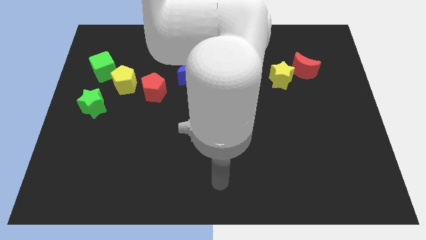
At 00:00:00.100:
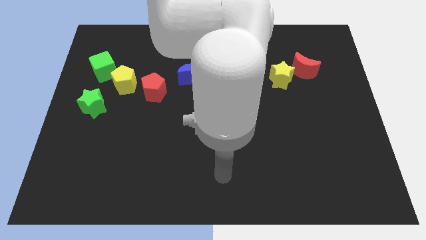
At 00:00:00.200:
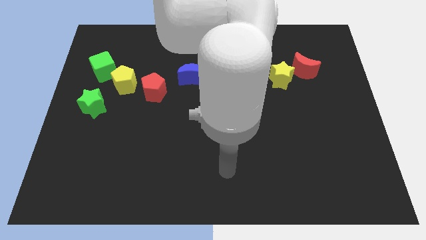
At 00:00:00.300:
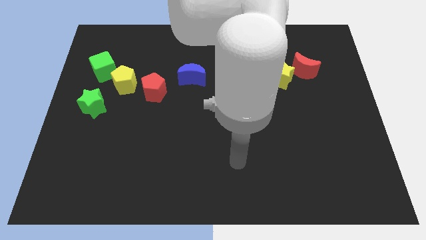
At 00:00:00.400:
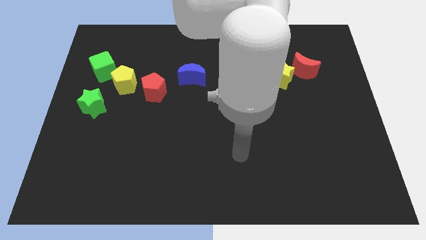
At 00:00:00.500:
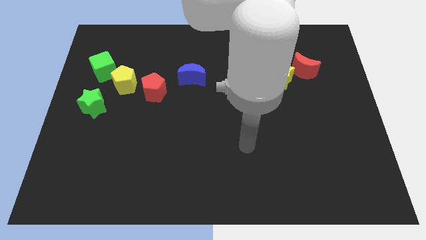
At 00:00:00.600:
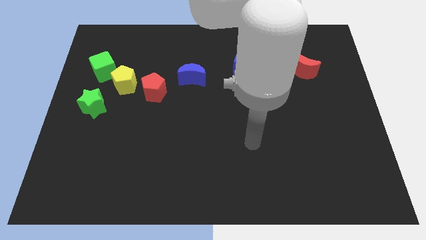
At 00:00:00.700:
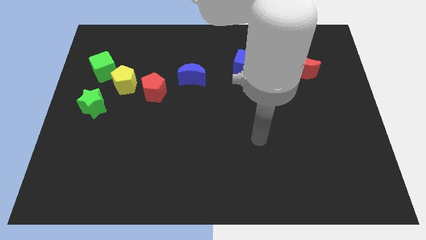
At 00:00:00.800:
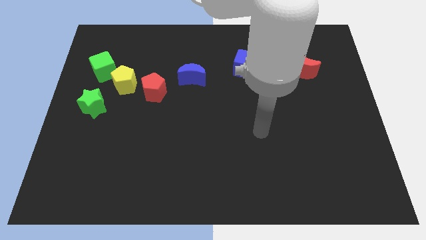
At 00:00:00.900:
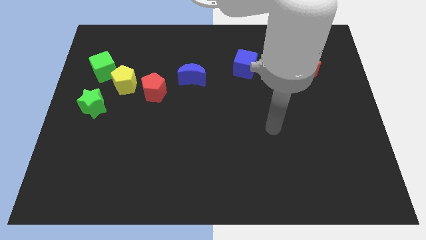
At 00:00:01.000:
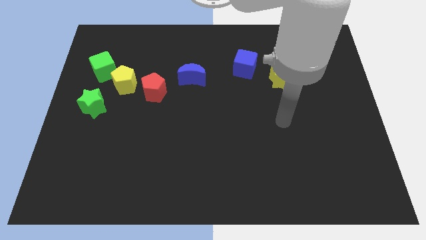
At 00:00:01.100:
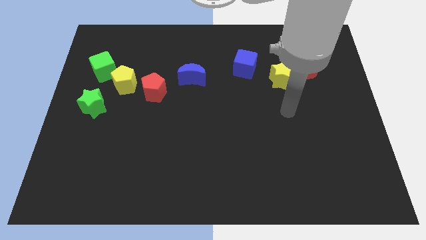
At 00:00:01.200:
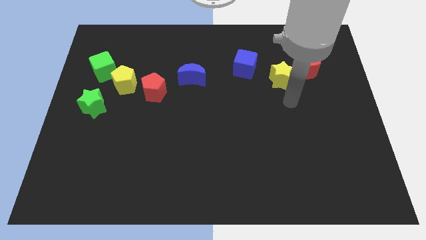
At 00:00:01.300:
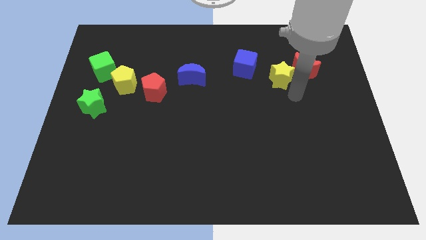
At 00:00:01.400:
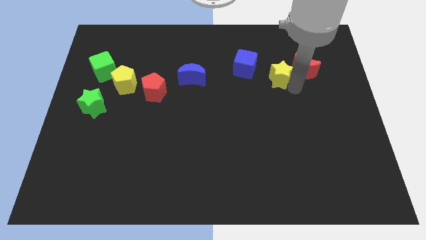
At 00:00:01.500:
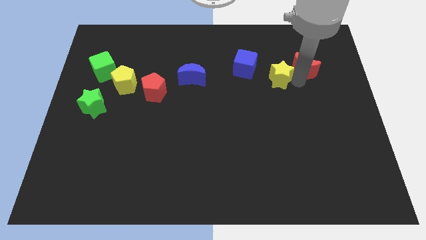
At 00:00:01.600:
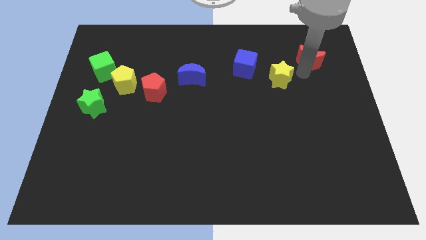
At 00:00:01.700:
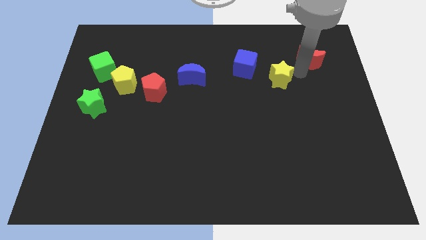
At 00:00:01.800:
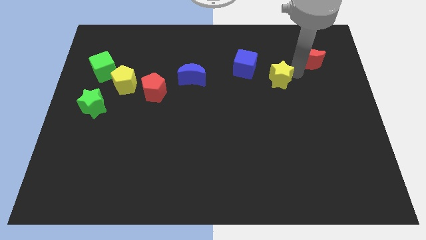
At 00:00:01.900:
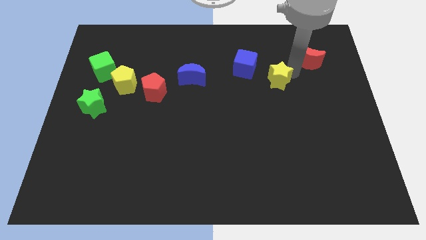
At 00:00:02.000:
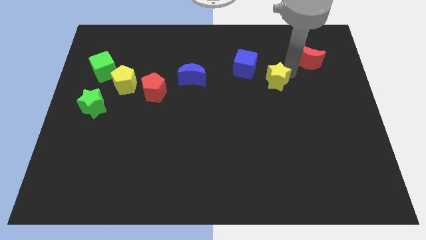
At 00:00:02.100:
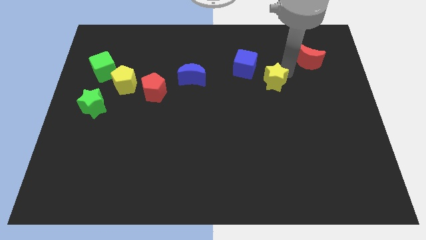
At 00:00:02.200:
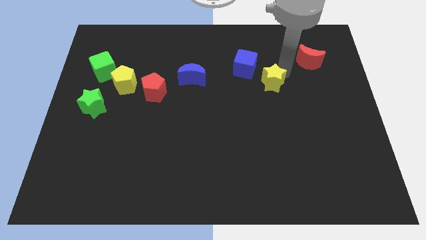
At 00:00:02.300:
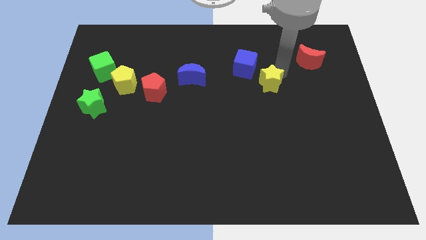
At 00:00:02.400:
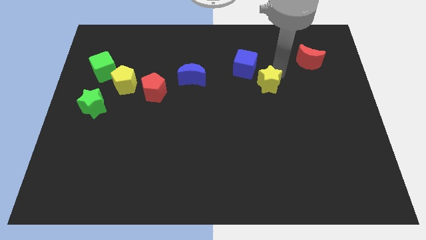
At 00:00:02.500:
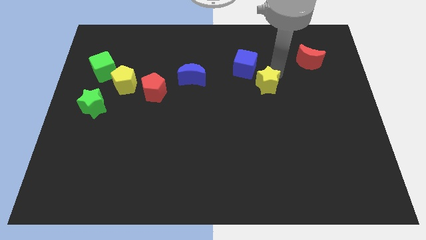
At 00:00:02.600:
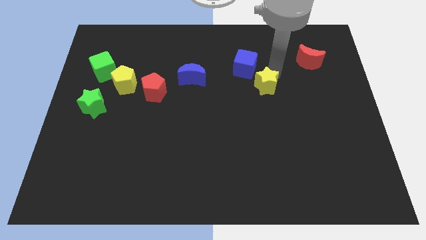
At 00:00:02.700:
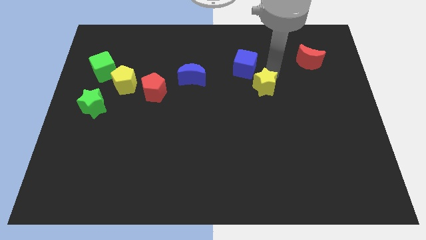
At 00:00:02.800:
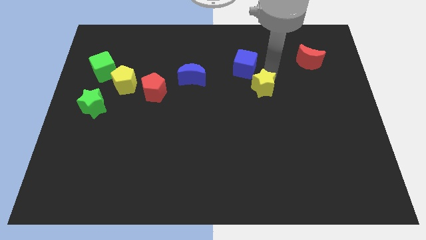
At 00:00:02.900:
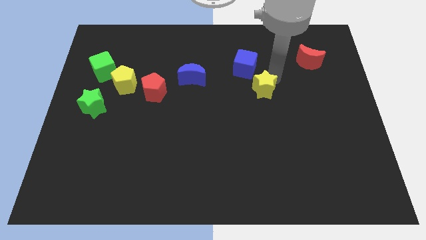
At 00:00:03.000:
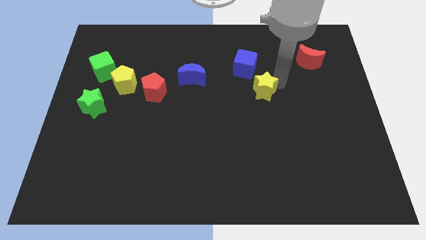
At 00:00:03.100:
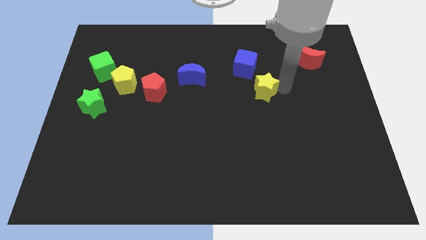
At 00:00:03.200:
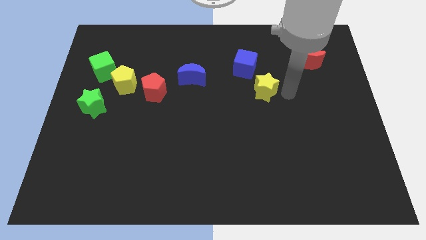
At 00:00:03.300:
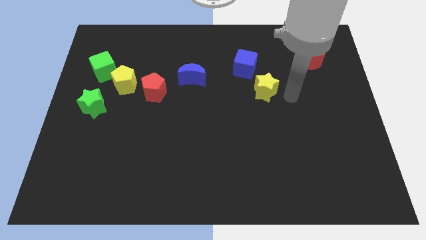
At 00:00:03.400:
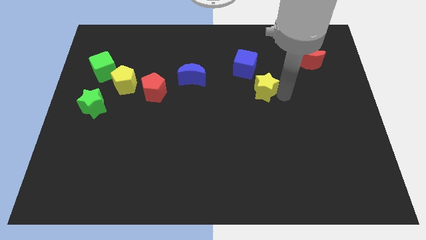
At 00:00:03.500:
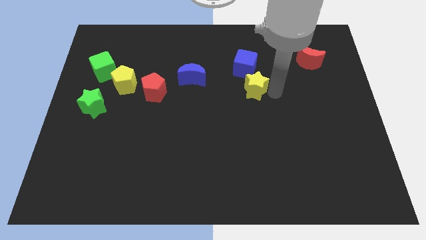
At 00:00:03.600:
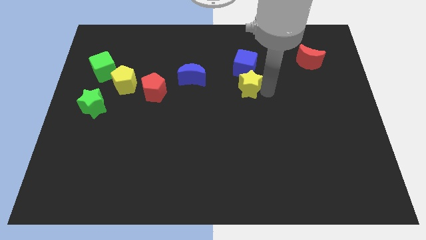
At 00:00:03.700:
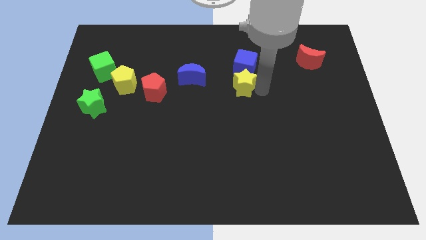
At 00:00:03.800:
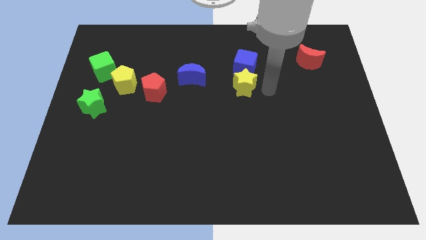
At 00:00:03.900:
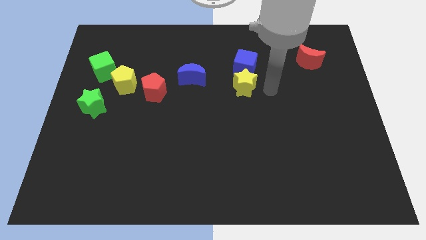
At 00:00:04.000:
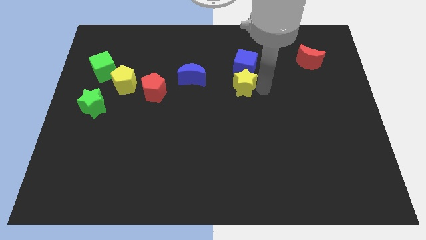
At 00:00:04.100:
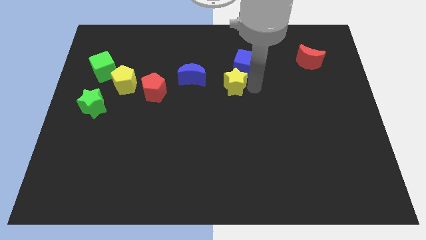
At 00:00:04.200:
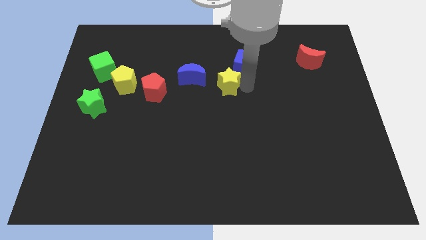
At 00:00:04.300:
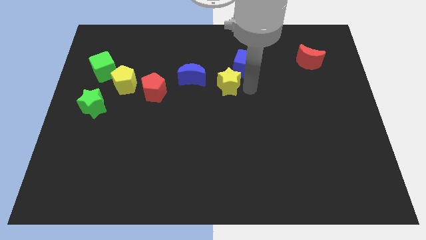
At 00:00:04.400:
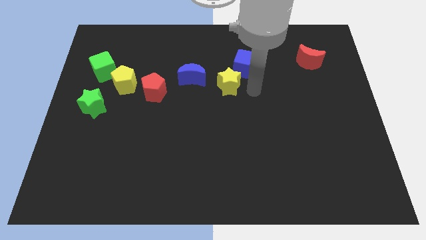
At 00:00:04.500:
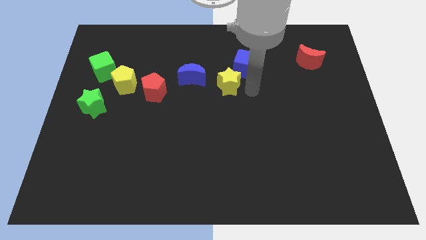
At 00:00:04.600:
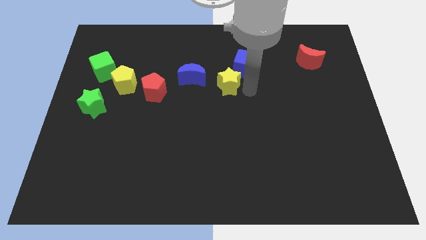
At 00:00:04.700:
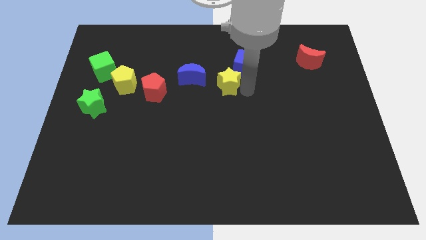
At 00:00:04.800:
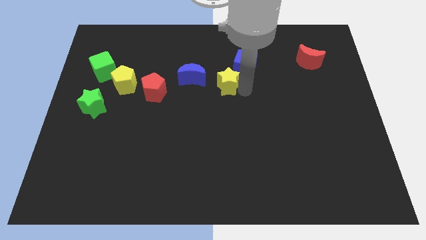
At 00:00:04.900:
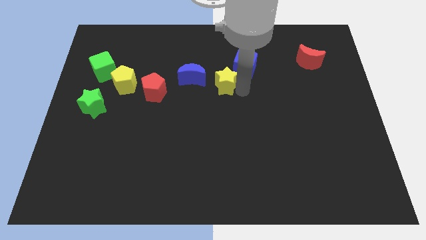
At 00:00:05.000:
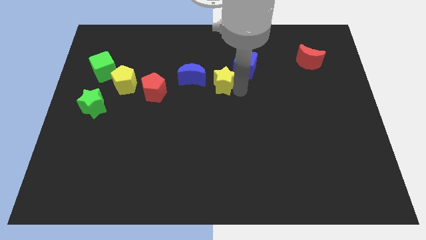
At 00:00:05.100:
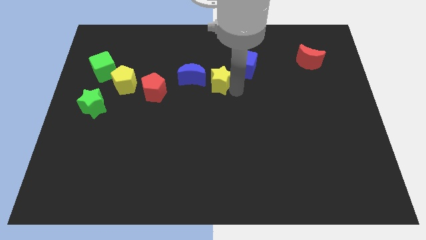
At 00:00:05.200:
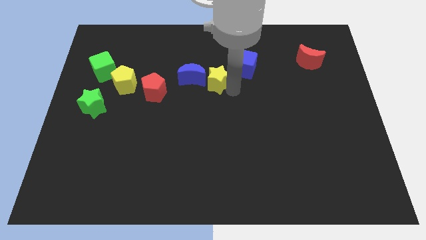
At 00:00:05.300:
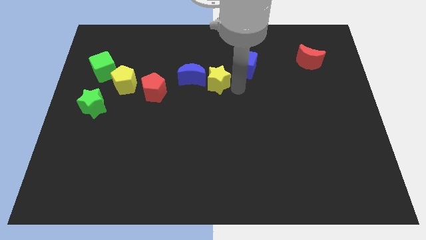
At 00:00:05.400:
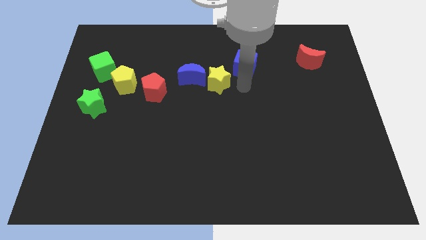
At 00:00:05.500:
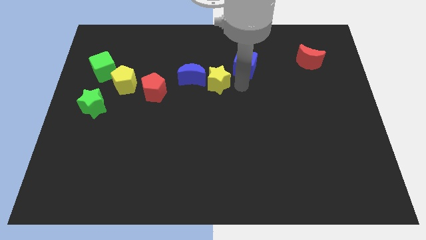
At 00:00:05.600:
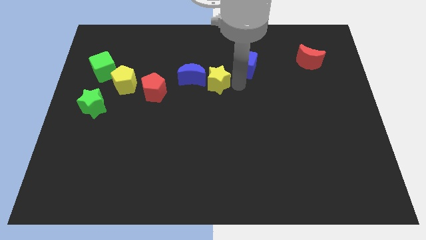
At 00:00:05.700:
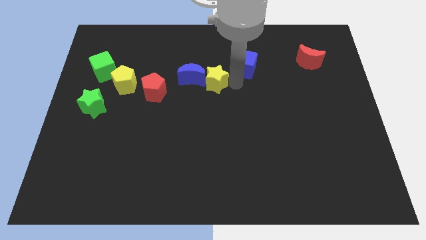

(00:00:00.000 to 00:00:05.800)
push the yellow star next to the blue moon

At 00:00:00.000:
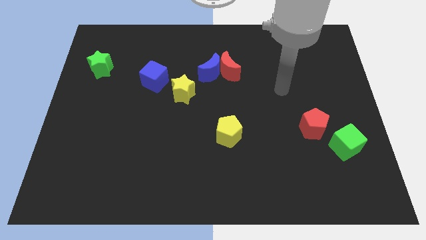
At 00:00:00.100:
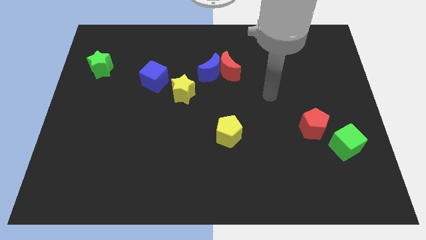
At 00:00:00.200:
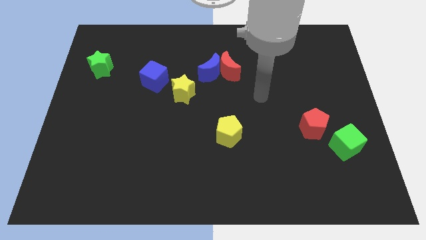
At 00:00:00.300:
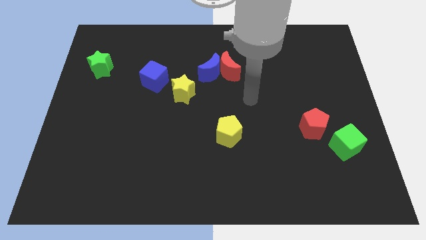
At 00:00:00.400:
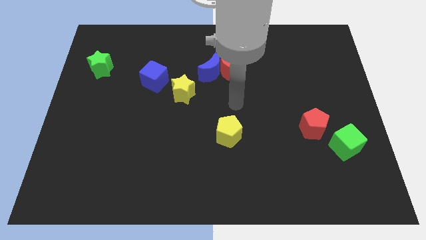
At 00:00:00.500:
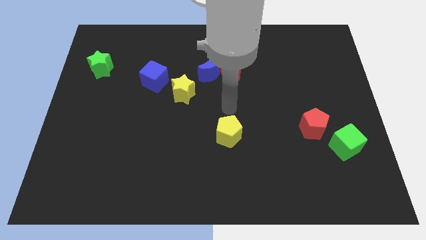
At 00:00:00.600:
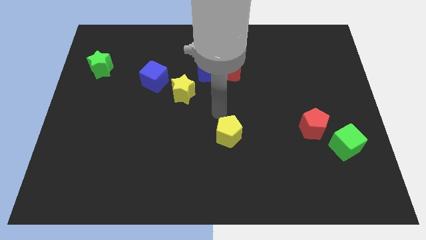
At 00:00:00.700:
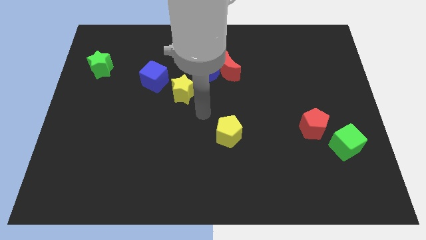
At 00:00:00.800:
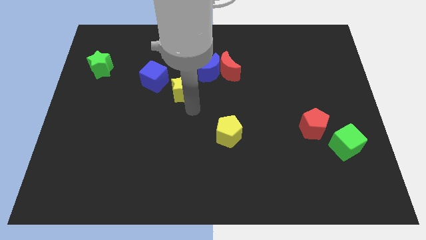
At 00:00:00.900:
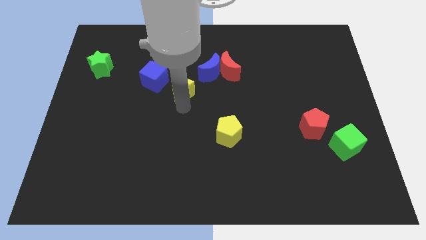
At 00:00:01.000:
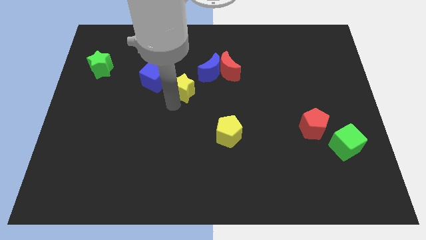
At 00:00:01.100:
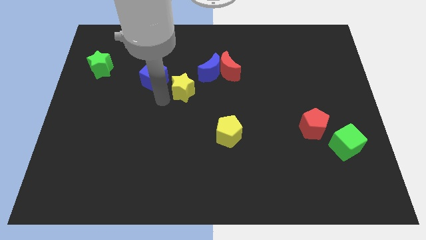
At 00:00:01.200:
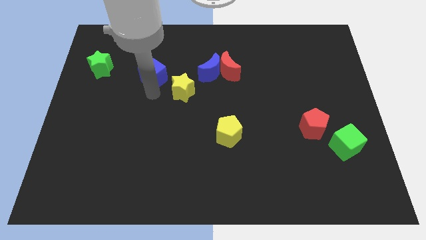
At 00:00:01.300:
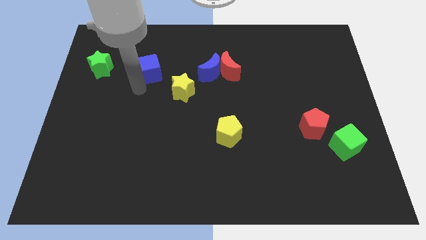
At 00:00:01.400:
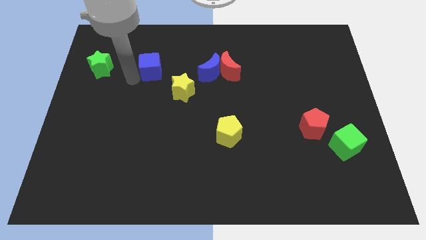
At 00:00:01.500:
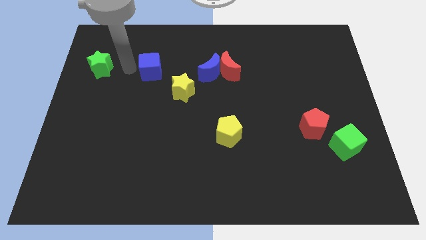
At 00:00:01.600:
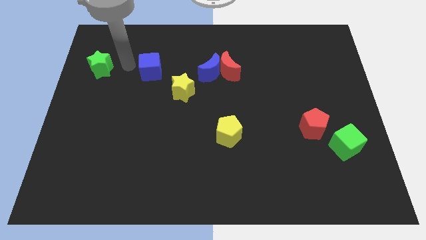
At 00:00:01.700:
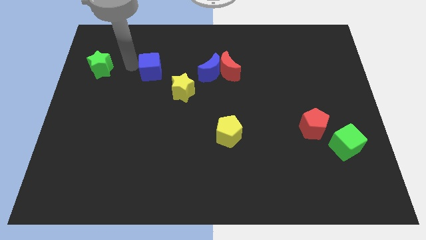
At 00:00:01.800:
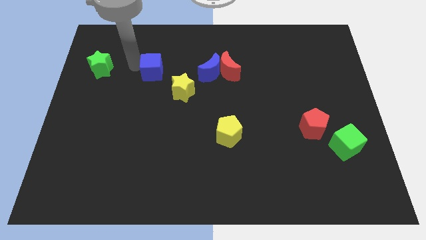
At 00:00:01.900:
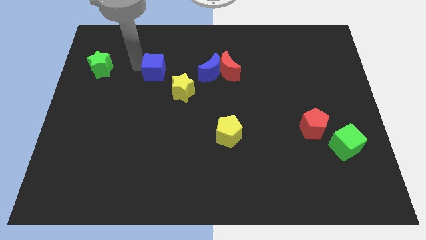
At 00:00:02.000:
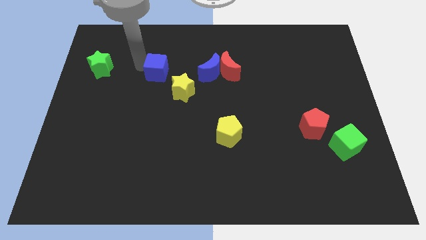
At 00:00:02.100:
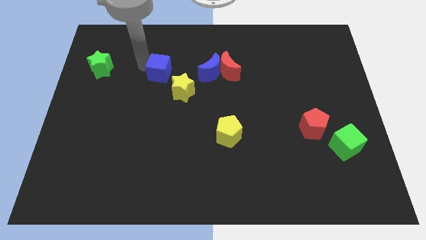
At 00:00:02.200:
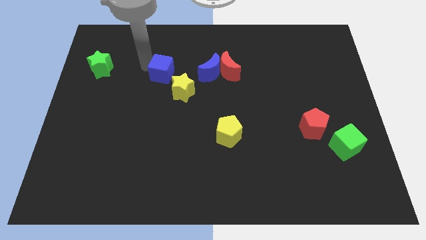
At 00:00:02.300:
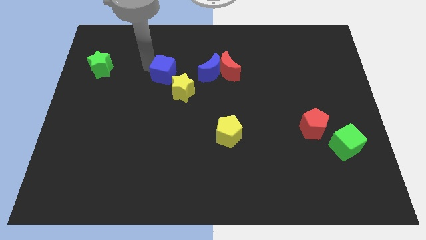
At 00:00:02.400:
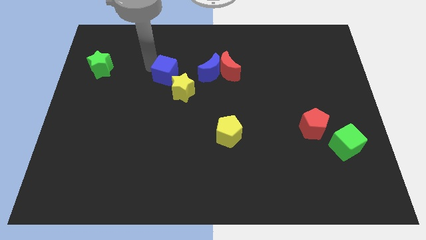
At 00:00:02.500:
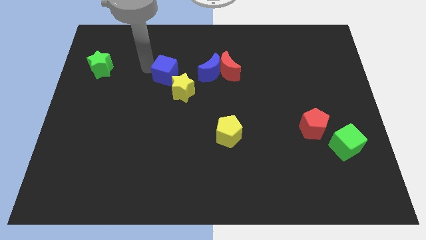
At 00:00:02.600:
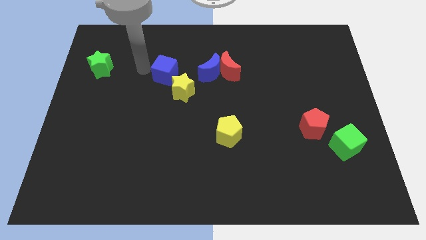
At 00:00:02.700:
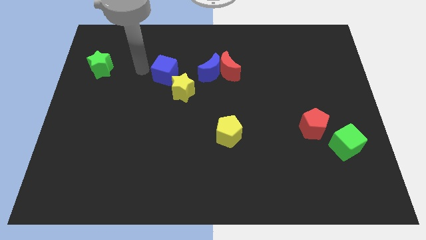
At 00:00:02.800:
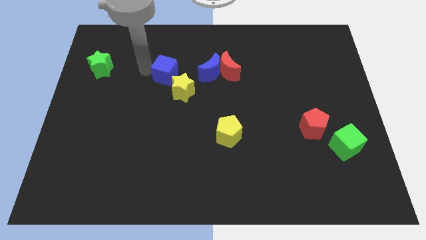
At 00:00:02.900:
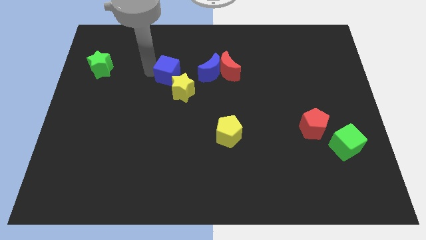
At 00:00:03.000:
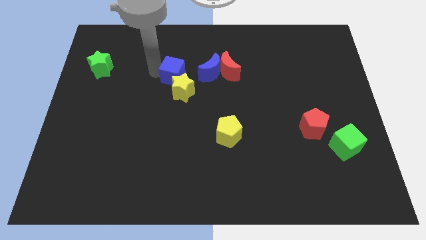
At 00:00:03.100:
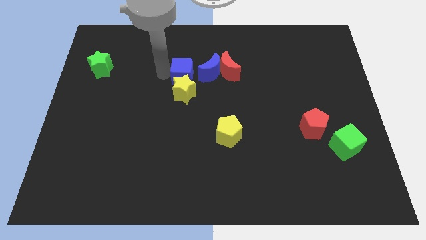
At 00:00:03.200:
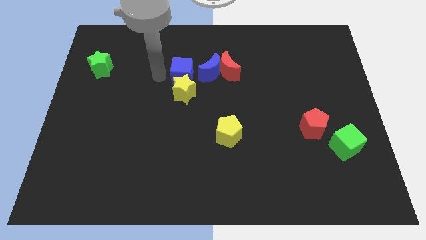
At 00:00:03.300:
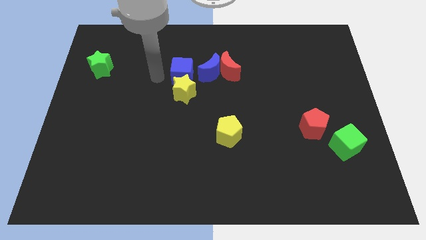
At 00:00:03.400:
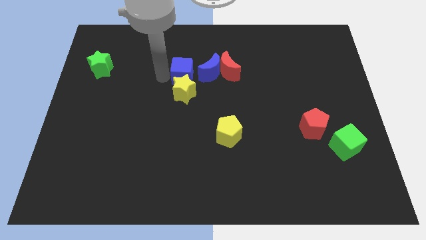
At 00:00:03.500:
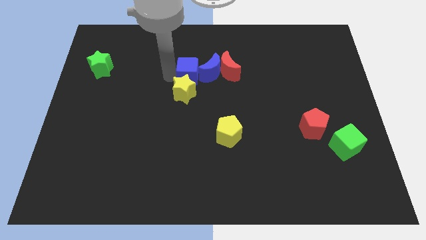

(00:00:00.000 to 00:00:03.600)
push the blue cube towards the blue moon
